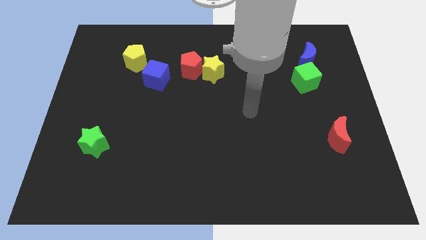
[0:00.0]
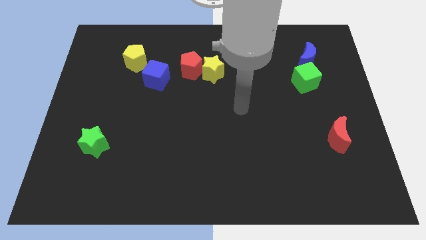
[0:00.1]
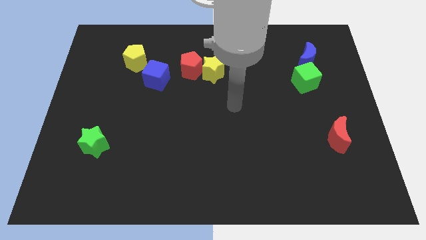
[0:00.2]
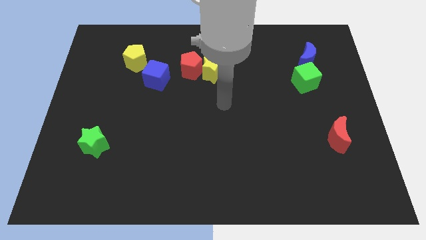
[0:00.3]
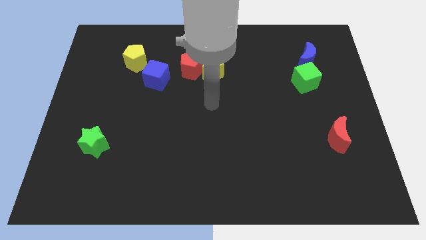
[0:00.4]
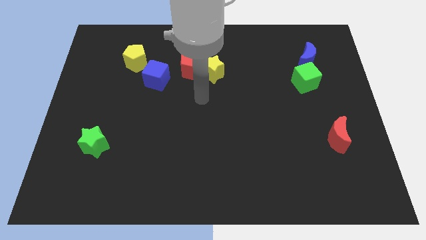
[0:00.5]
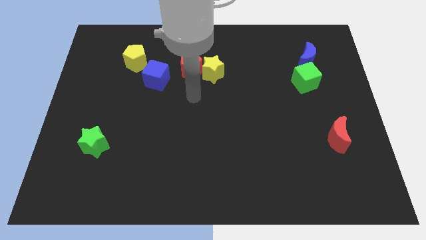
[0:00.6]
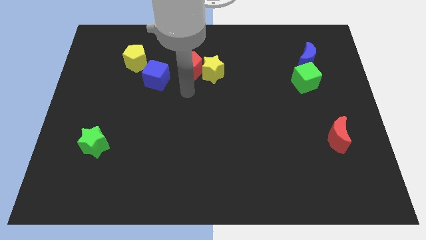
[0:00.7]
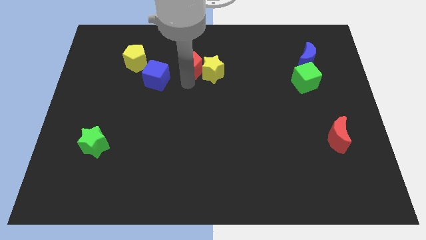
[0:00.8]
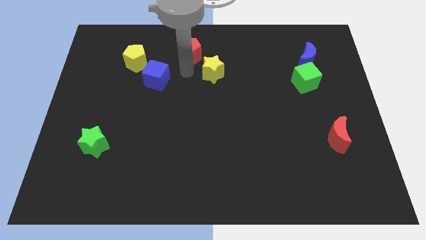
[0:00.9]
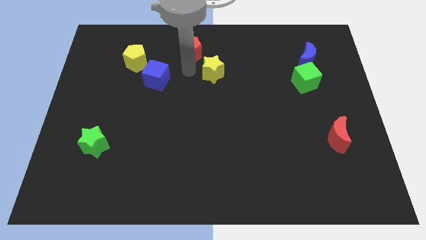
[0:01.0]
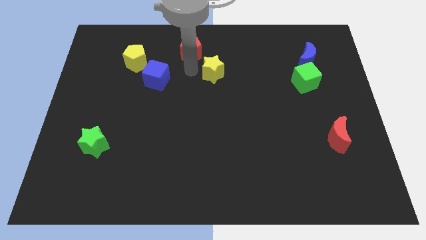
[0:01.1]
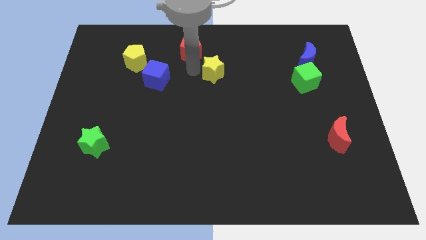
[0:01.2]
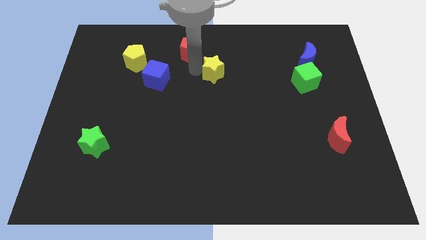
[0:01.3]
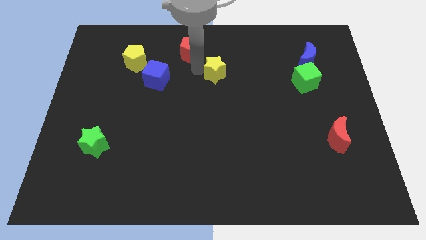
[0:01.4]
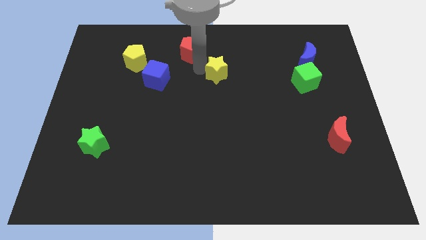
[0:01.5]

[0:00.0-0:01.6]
separate the yellow star from the red pentagon

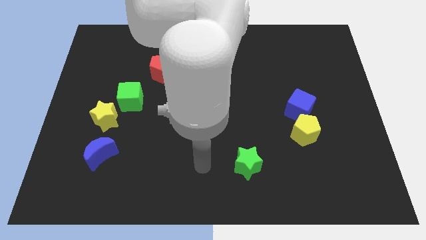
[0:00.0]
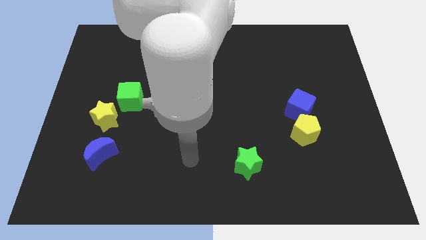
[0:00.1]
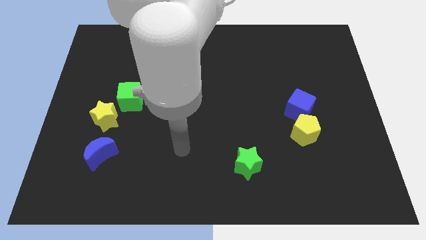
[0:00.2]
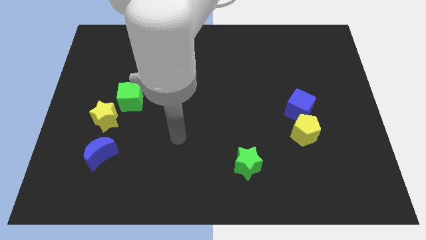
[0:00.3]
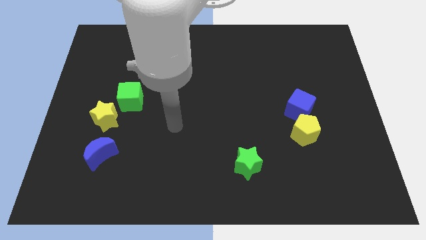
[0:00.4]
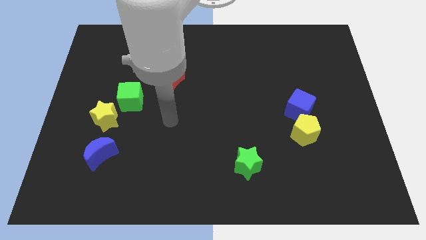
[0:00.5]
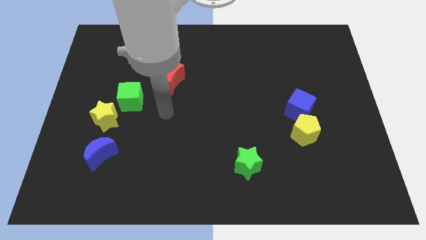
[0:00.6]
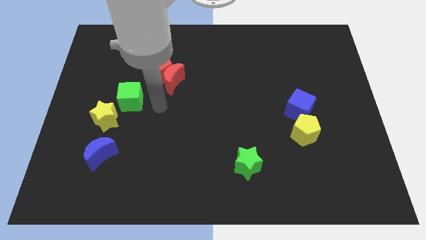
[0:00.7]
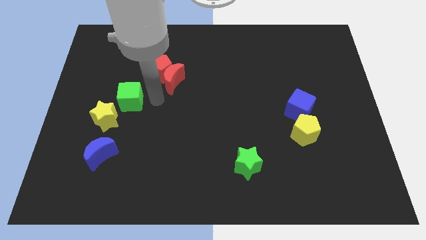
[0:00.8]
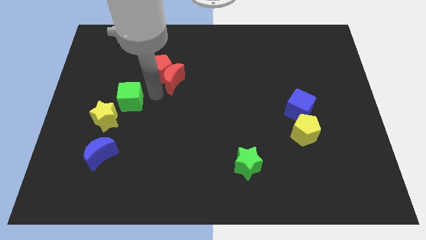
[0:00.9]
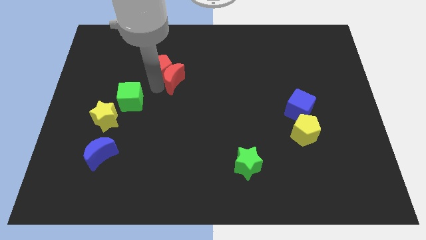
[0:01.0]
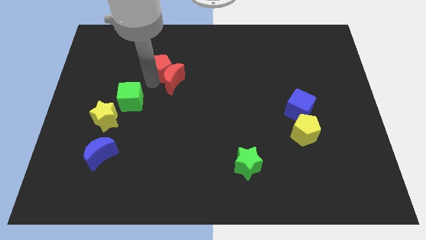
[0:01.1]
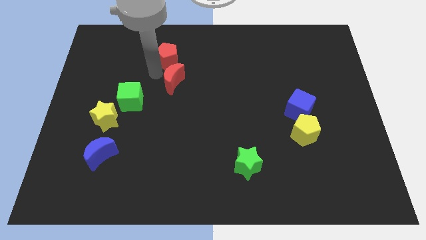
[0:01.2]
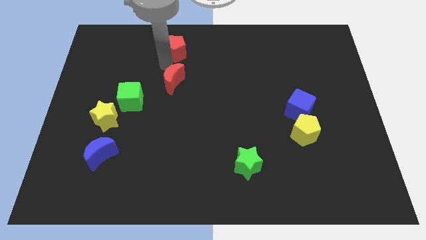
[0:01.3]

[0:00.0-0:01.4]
pull the red moon apart from the red pentagon

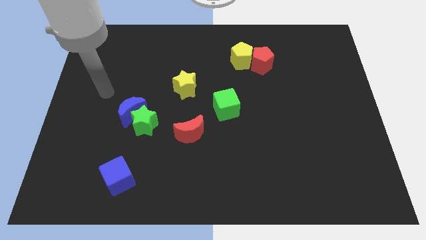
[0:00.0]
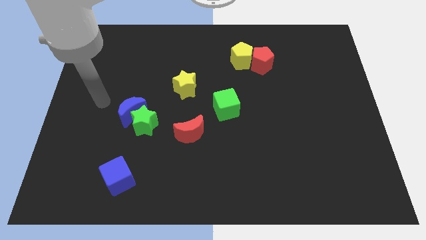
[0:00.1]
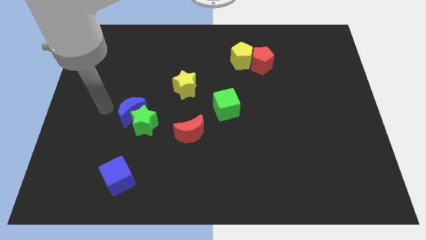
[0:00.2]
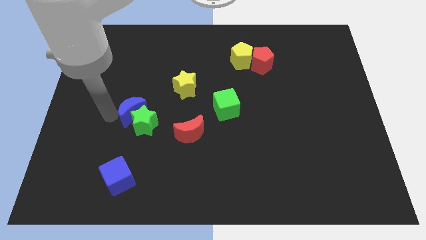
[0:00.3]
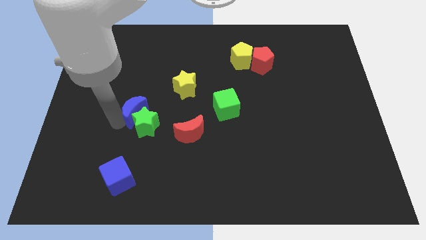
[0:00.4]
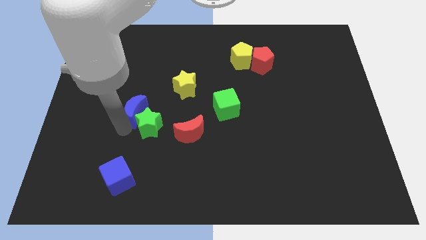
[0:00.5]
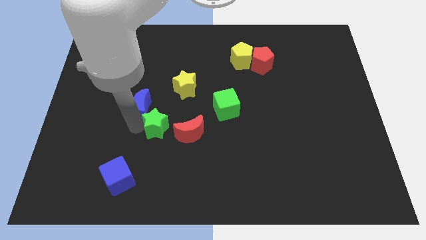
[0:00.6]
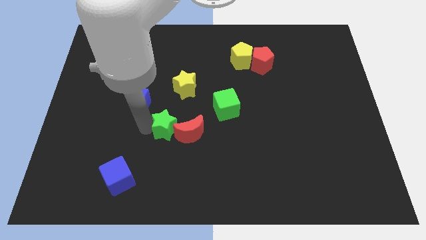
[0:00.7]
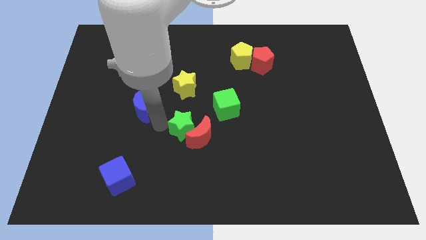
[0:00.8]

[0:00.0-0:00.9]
separate the blue moon from the green star

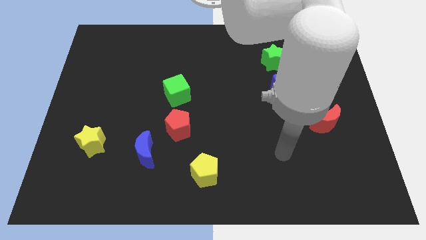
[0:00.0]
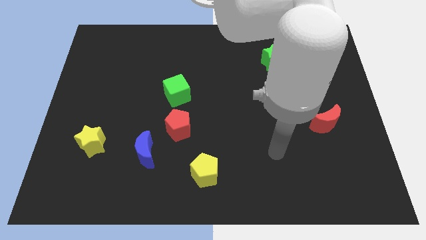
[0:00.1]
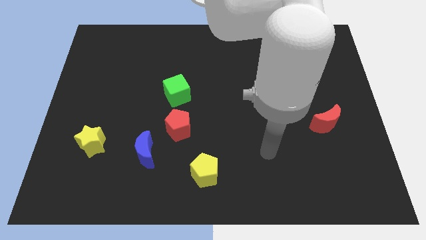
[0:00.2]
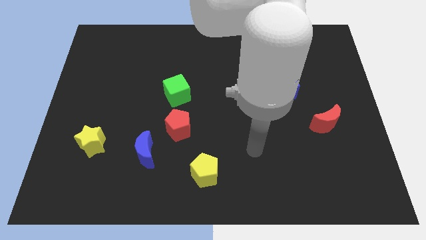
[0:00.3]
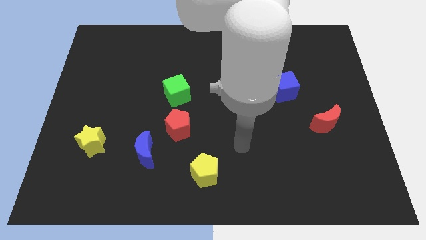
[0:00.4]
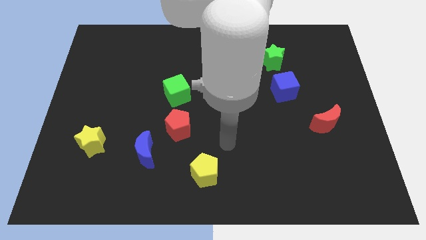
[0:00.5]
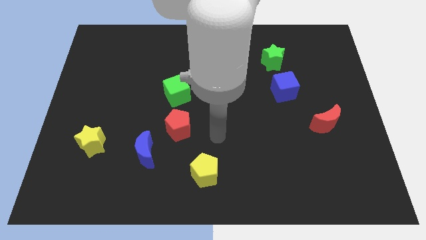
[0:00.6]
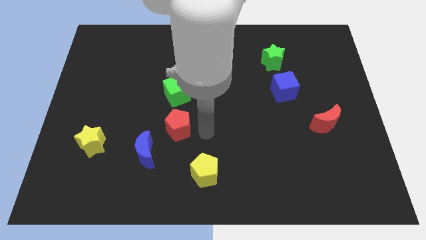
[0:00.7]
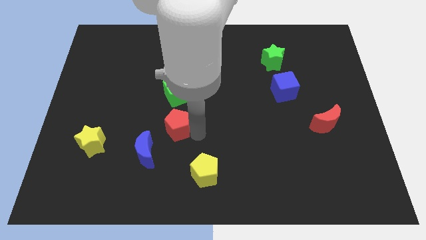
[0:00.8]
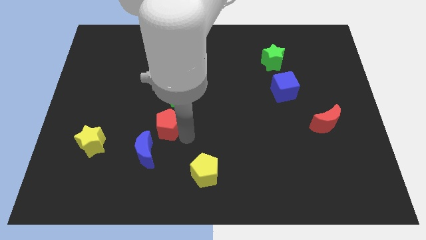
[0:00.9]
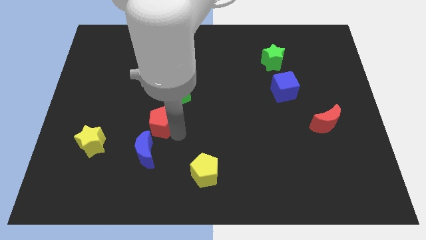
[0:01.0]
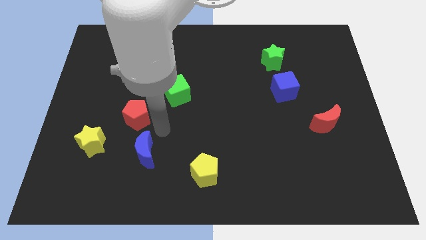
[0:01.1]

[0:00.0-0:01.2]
pull the blue moon apart from the red pentagon

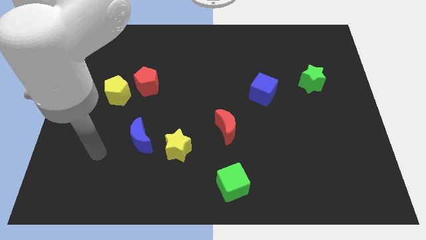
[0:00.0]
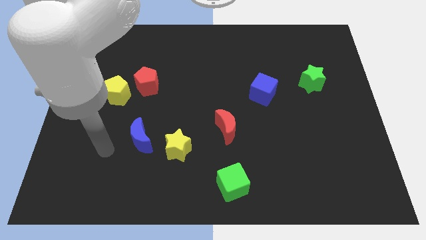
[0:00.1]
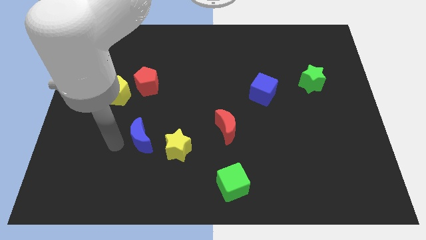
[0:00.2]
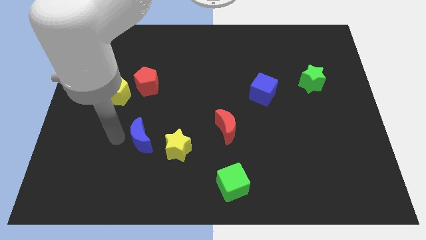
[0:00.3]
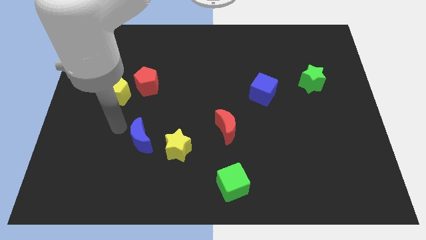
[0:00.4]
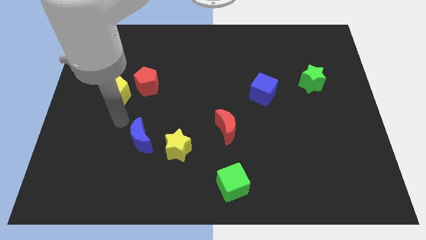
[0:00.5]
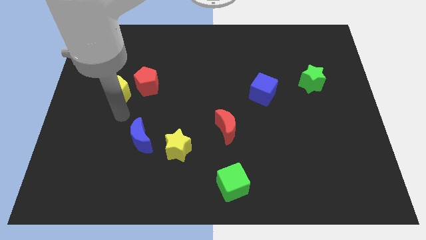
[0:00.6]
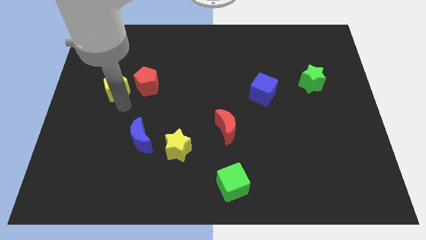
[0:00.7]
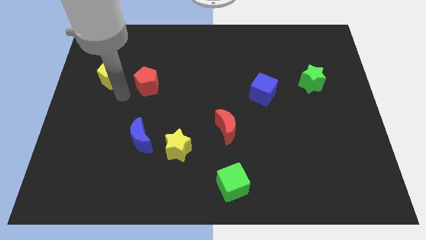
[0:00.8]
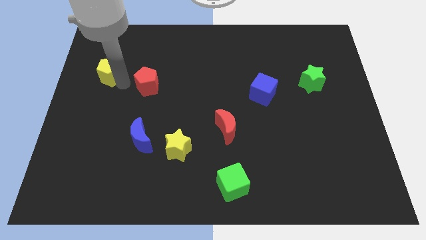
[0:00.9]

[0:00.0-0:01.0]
move the red pentagon away from the yellow pentagon

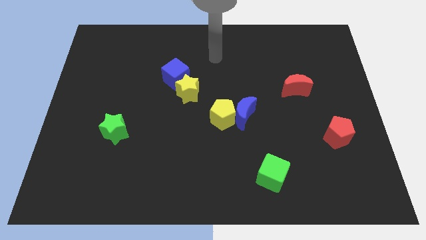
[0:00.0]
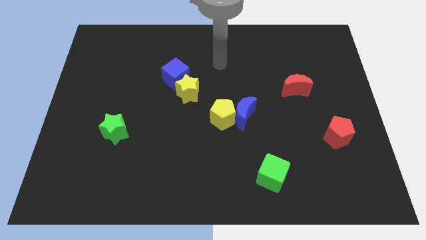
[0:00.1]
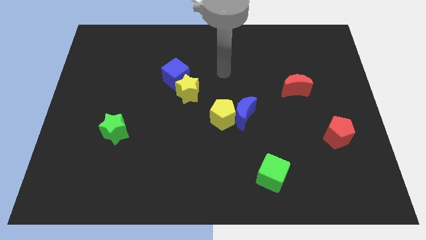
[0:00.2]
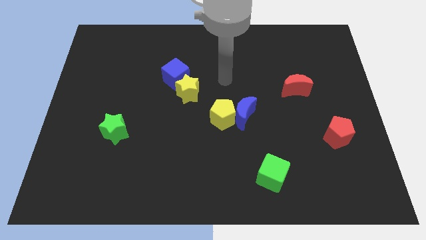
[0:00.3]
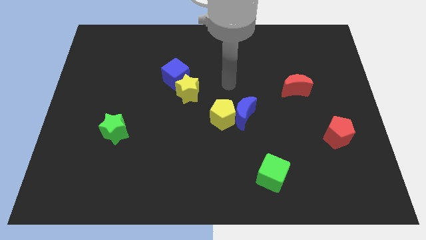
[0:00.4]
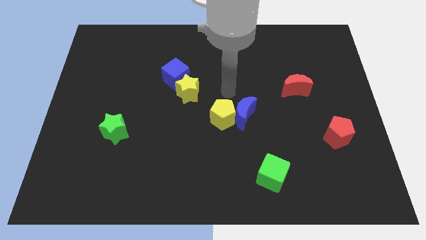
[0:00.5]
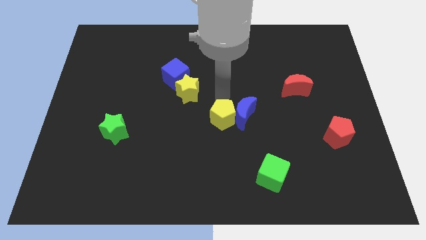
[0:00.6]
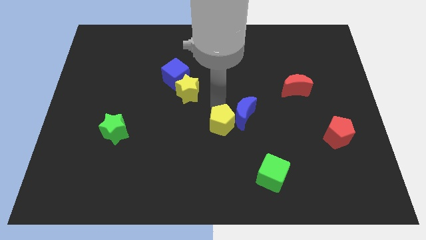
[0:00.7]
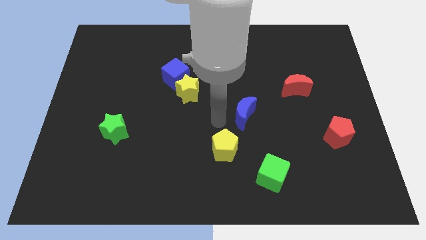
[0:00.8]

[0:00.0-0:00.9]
move the blue moon away from the yellow pentagon

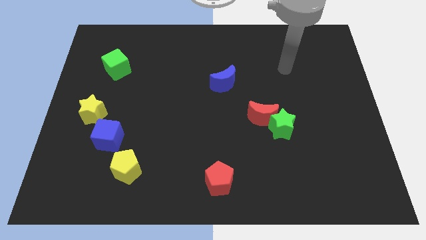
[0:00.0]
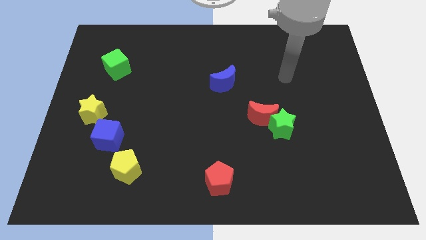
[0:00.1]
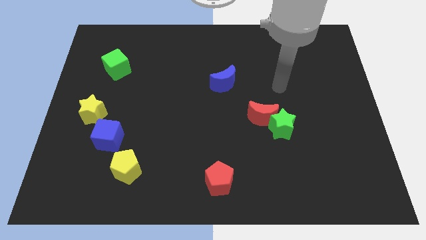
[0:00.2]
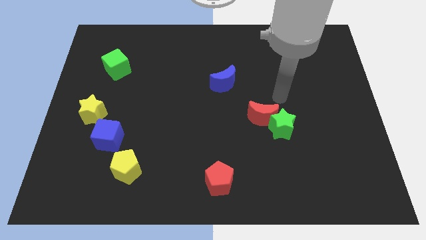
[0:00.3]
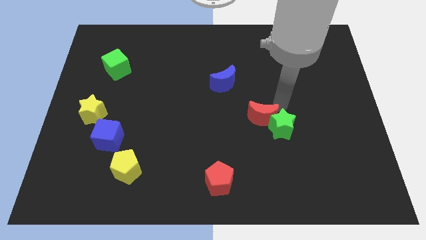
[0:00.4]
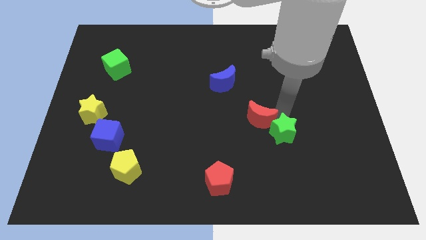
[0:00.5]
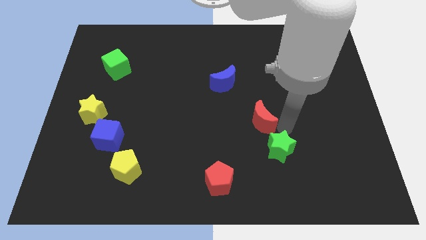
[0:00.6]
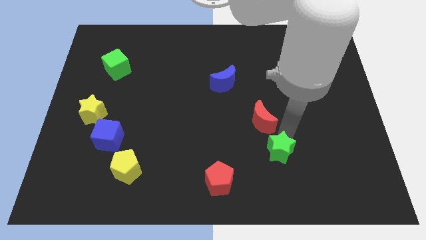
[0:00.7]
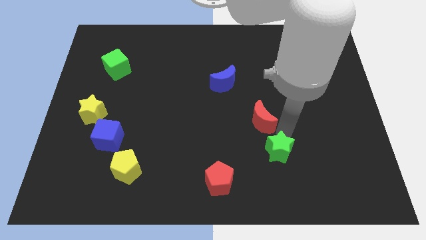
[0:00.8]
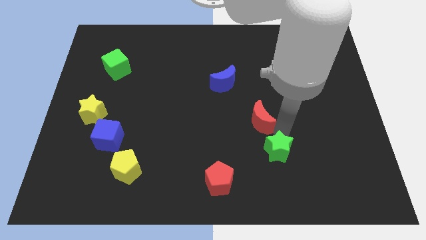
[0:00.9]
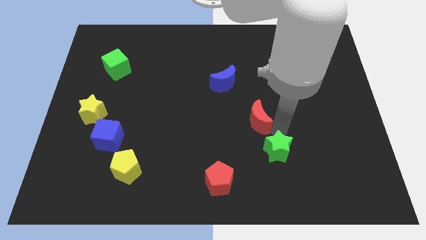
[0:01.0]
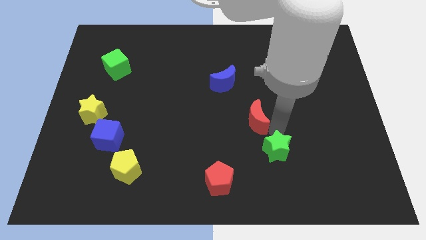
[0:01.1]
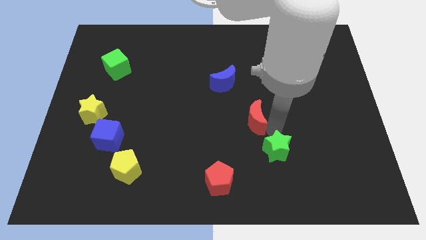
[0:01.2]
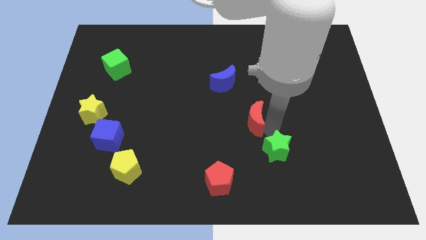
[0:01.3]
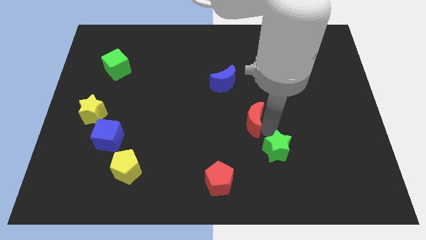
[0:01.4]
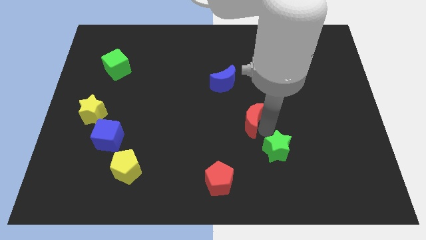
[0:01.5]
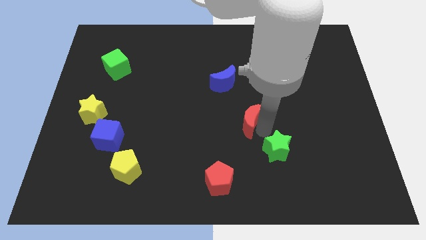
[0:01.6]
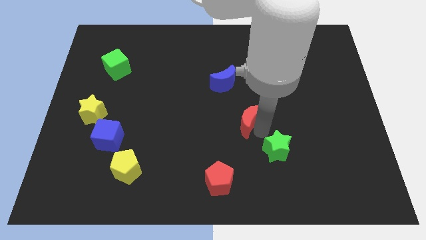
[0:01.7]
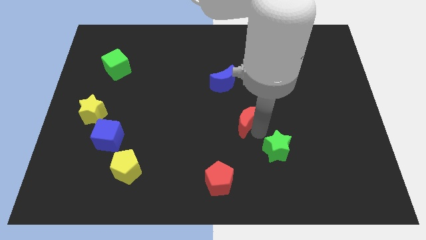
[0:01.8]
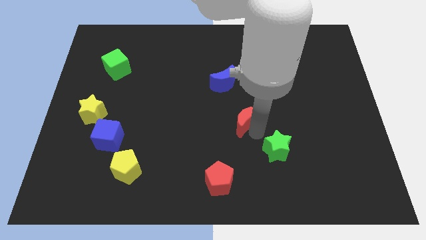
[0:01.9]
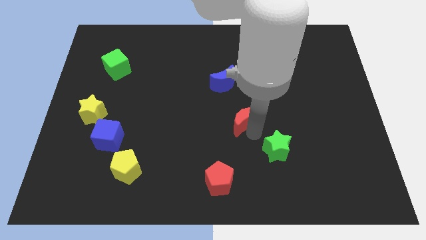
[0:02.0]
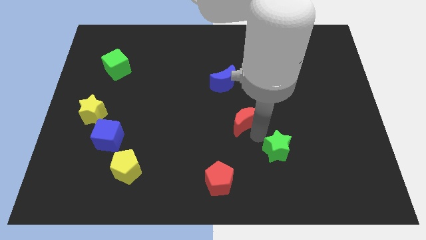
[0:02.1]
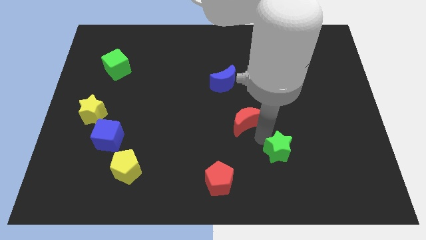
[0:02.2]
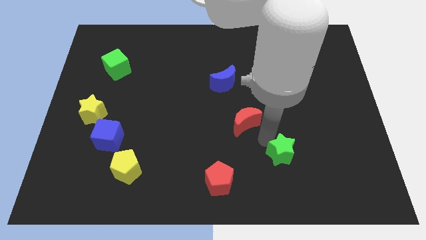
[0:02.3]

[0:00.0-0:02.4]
pull the red moon apart from the green star
